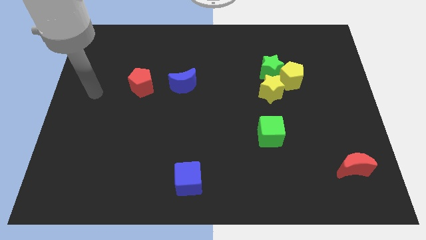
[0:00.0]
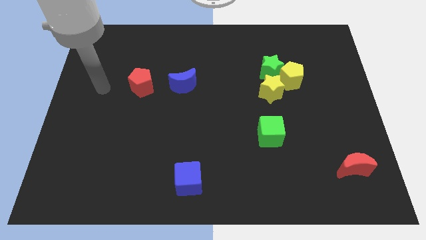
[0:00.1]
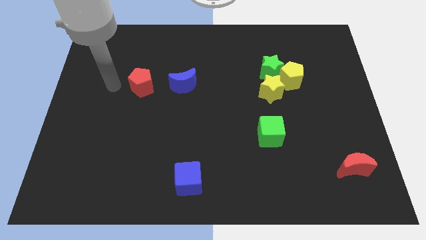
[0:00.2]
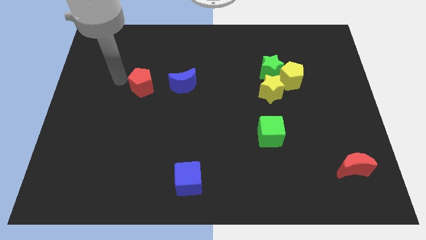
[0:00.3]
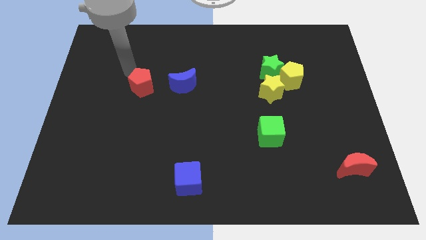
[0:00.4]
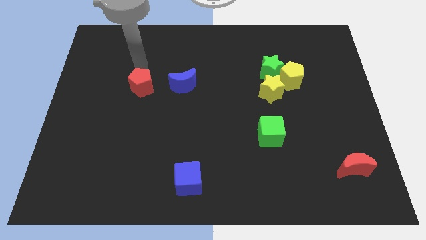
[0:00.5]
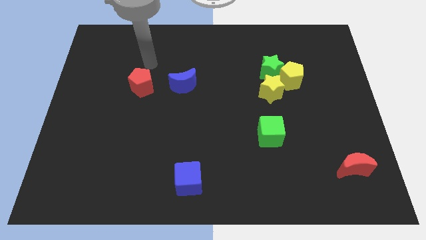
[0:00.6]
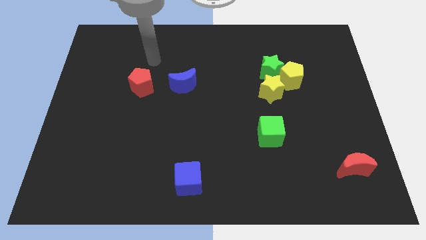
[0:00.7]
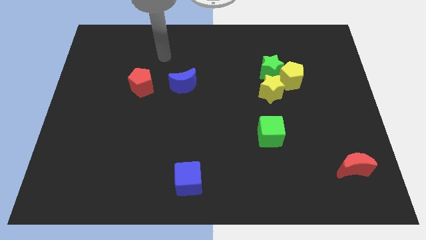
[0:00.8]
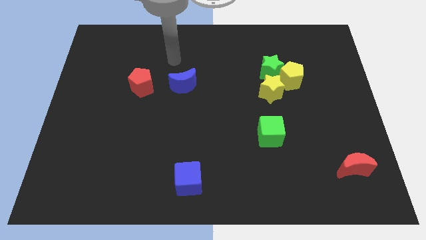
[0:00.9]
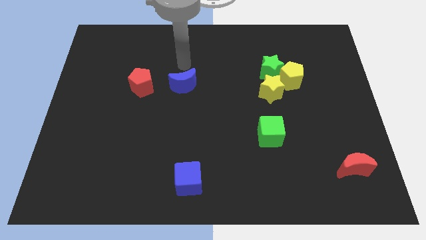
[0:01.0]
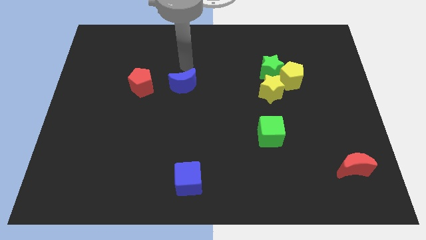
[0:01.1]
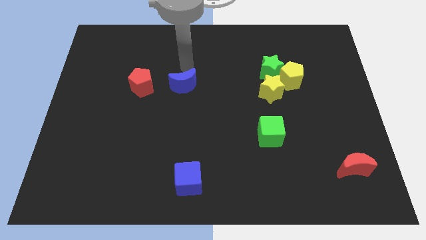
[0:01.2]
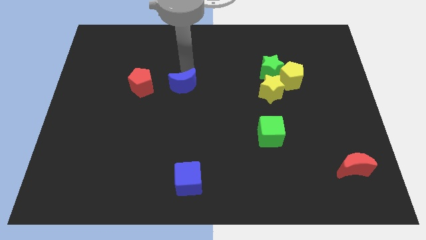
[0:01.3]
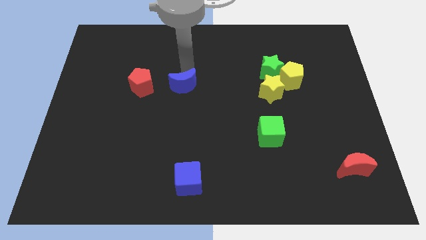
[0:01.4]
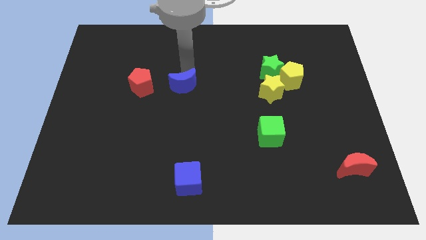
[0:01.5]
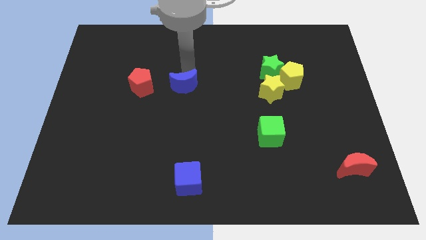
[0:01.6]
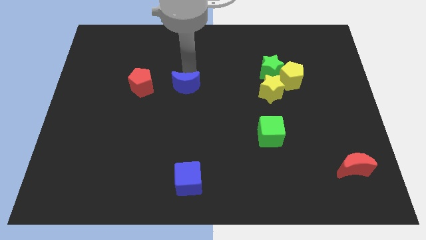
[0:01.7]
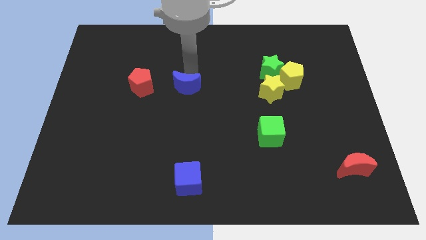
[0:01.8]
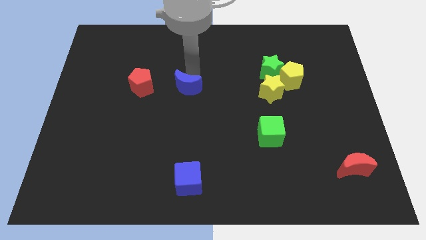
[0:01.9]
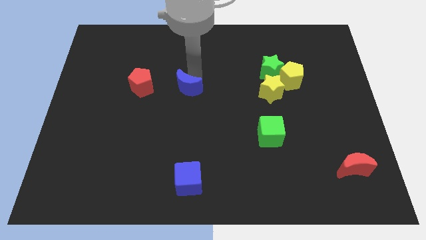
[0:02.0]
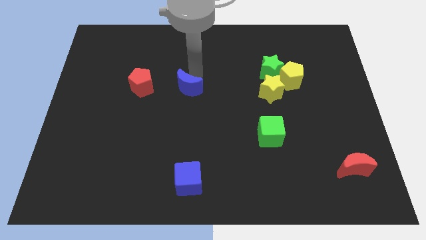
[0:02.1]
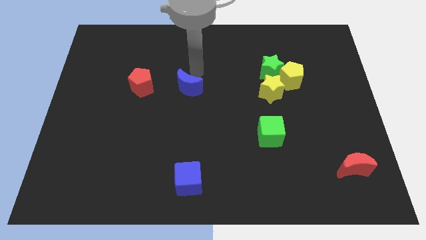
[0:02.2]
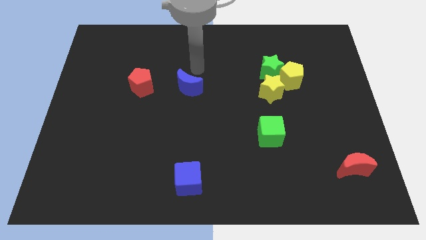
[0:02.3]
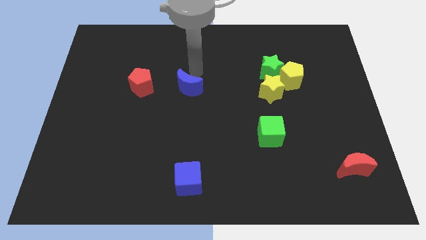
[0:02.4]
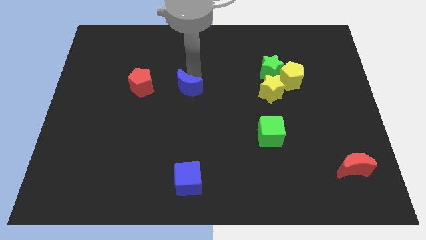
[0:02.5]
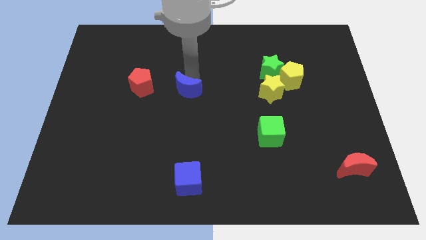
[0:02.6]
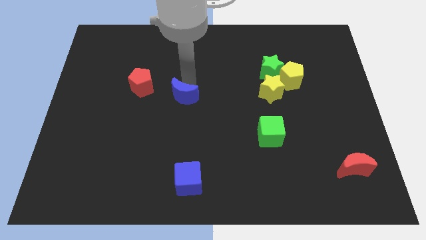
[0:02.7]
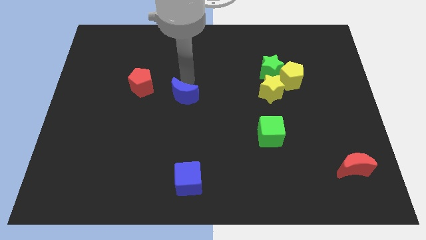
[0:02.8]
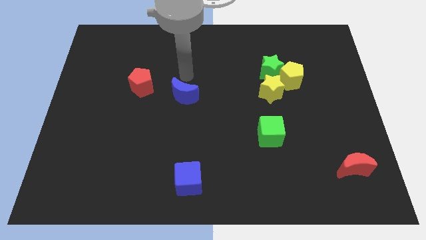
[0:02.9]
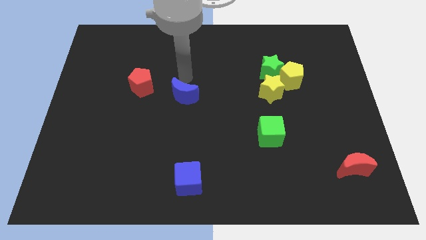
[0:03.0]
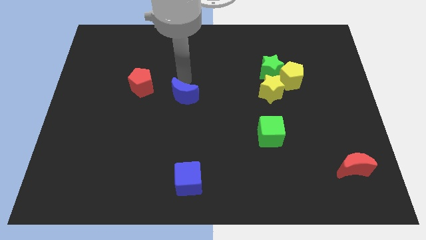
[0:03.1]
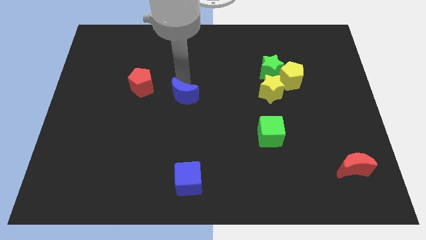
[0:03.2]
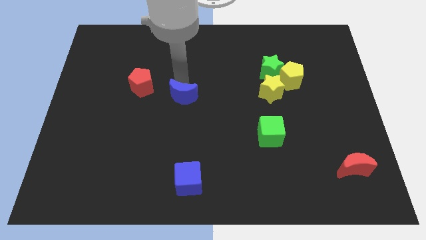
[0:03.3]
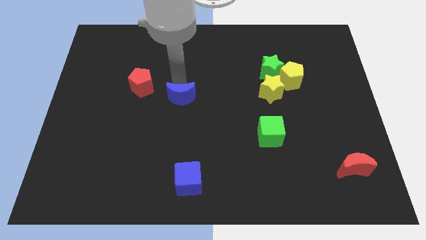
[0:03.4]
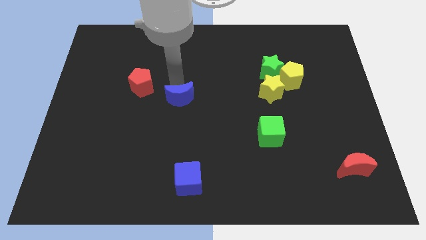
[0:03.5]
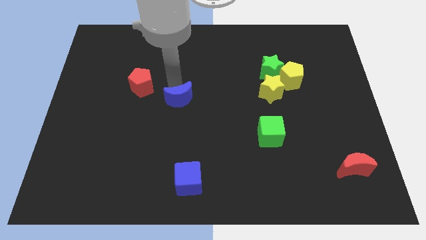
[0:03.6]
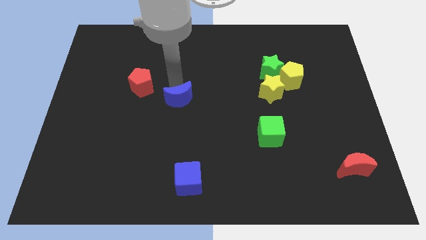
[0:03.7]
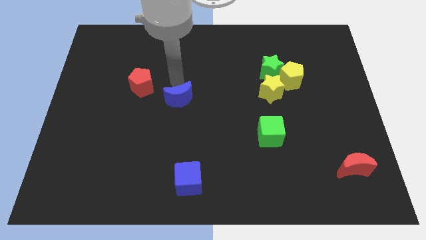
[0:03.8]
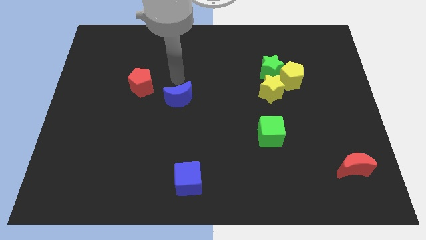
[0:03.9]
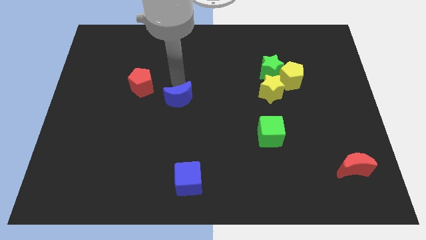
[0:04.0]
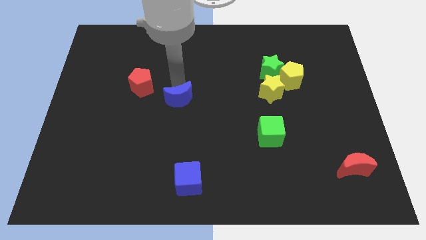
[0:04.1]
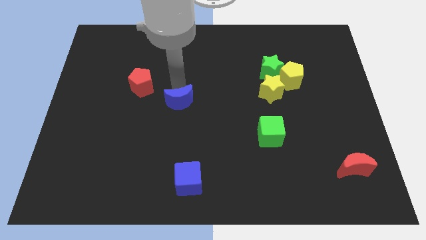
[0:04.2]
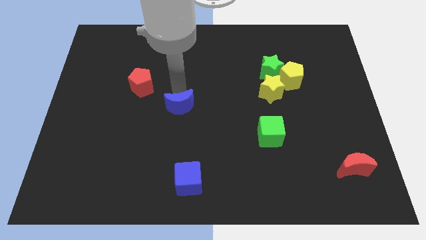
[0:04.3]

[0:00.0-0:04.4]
move the blue moon somewhat downwards

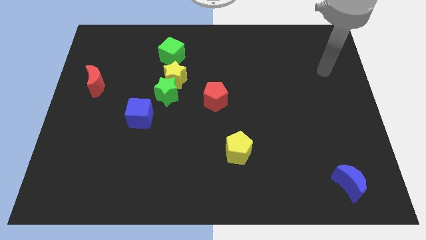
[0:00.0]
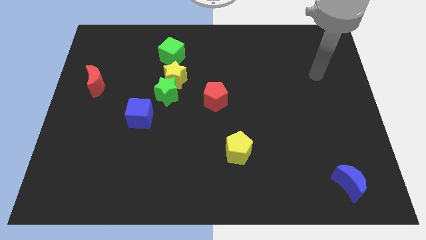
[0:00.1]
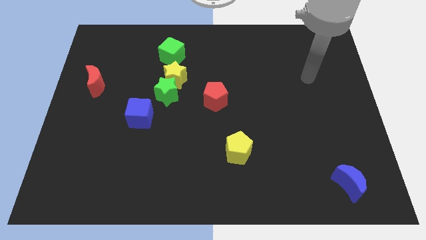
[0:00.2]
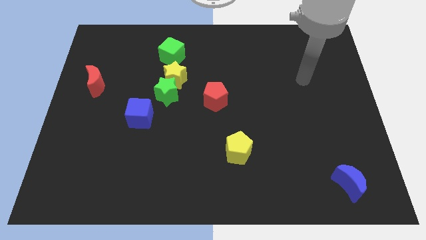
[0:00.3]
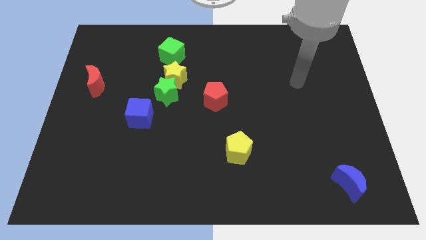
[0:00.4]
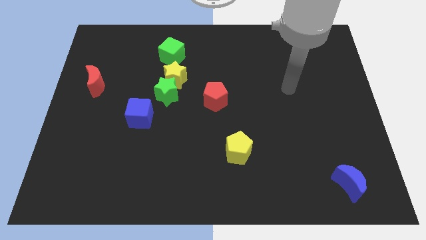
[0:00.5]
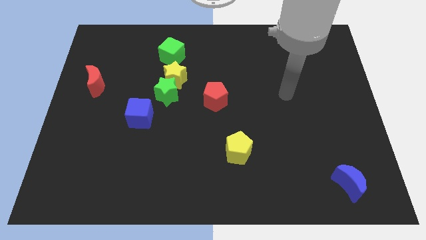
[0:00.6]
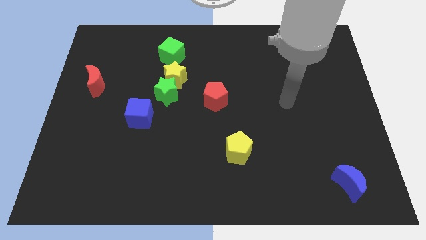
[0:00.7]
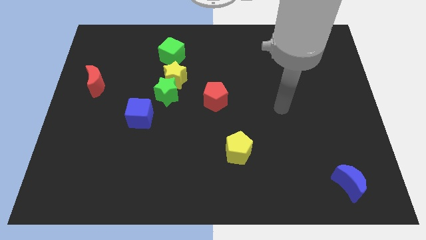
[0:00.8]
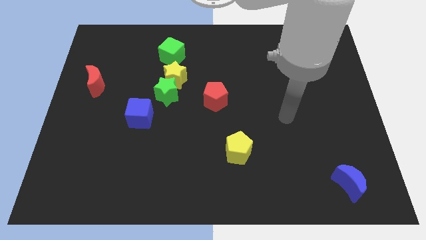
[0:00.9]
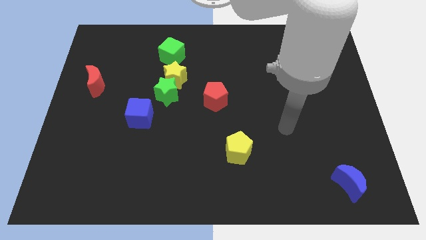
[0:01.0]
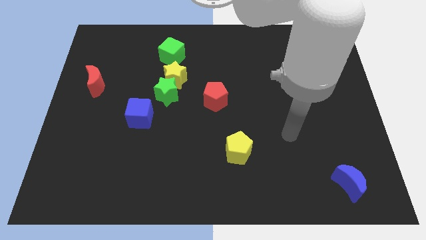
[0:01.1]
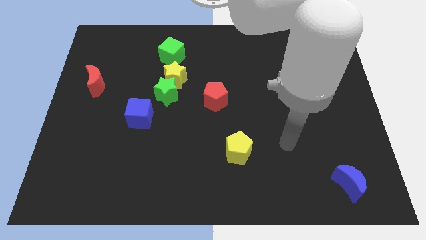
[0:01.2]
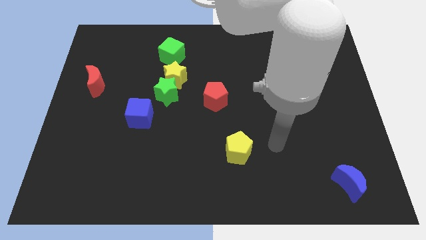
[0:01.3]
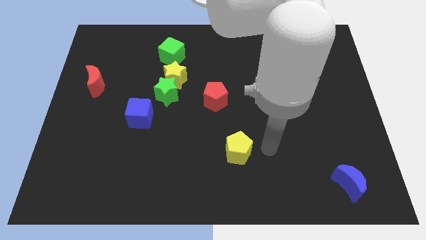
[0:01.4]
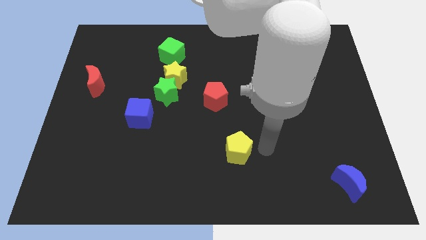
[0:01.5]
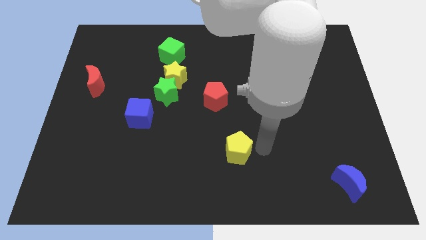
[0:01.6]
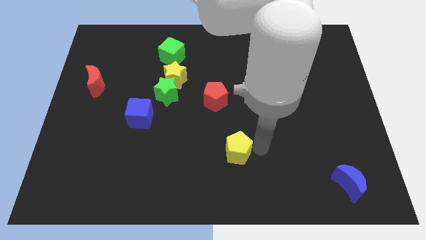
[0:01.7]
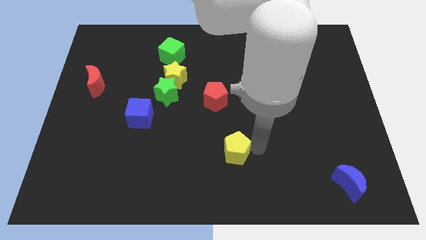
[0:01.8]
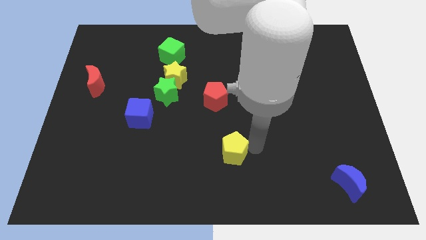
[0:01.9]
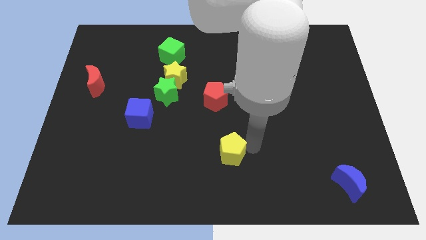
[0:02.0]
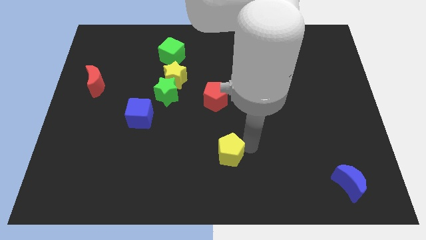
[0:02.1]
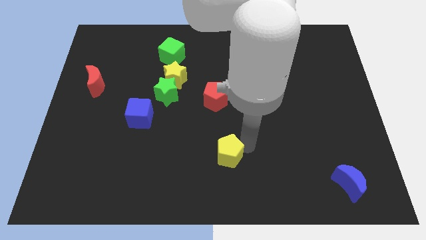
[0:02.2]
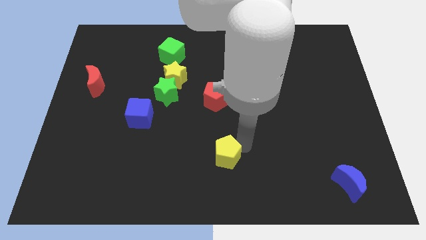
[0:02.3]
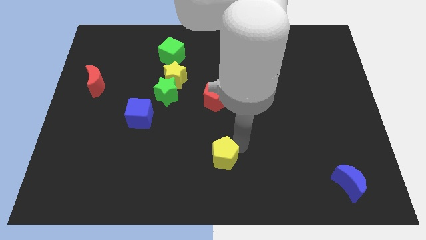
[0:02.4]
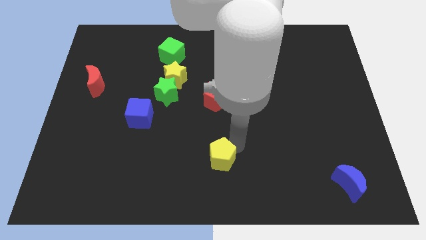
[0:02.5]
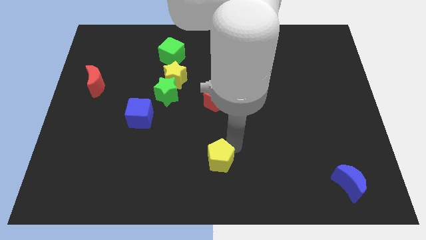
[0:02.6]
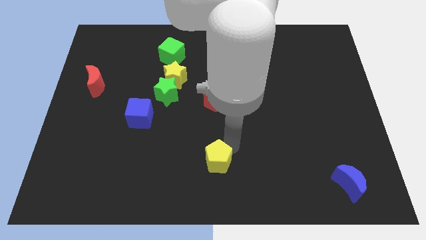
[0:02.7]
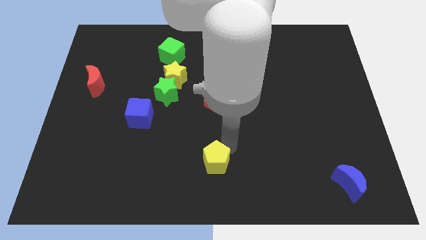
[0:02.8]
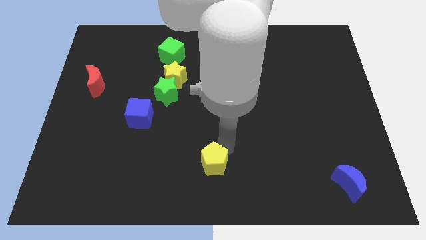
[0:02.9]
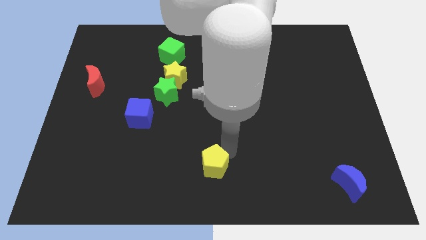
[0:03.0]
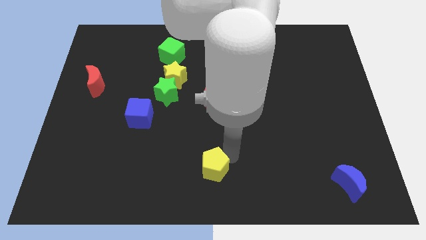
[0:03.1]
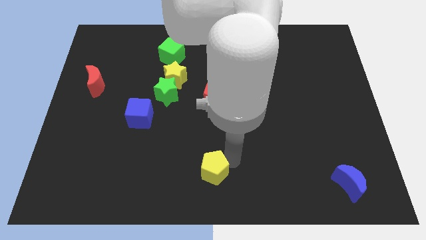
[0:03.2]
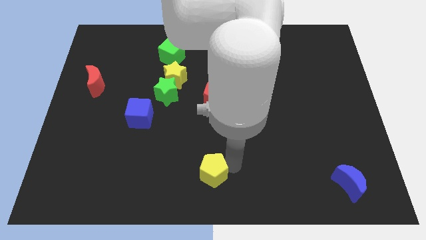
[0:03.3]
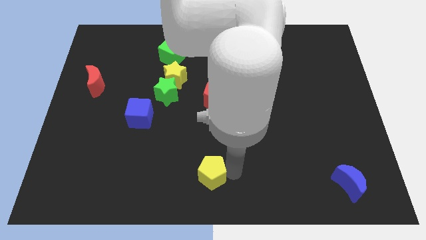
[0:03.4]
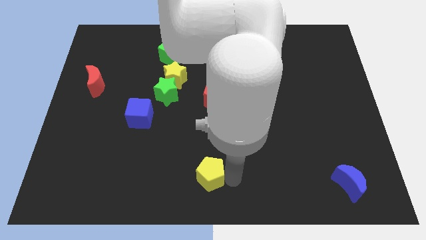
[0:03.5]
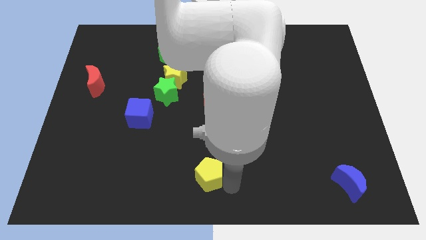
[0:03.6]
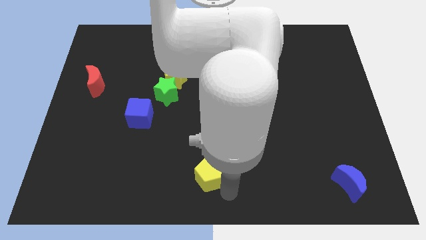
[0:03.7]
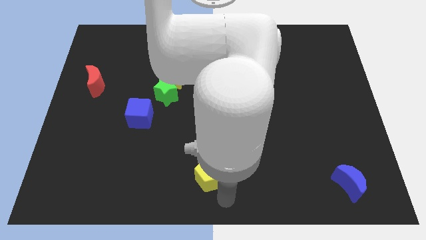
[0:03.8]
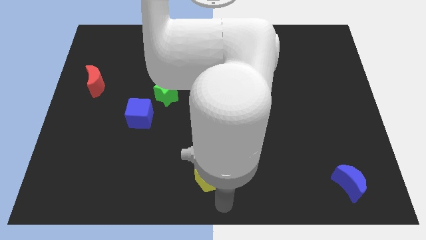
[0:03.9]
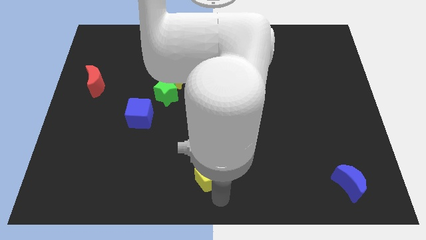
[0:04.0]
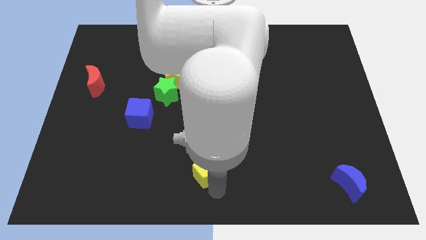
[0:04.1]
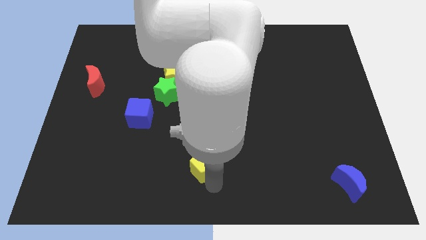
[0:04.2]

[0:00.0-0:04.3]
slide the yellow pentagon somewhat to the left
